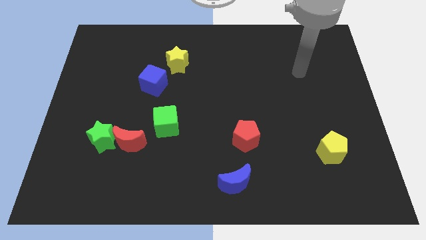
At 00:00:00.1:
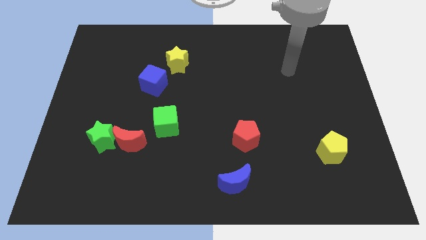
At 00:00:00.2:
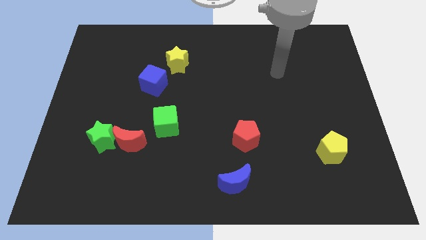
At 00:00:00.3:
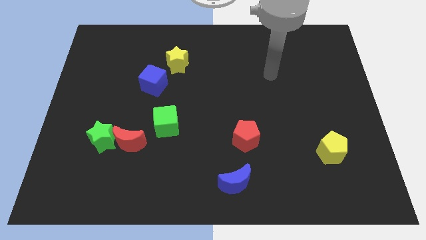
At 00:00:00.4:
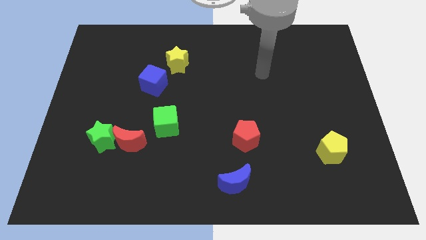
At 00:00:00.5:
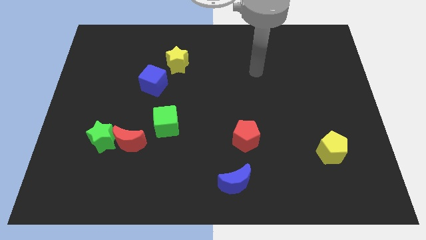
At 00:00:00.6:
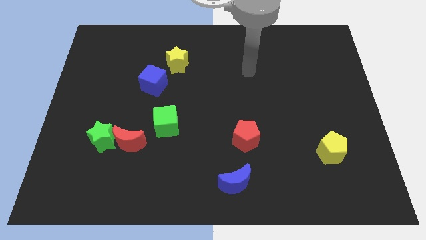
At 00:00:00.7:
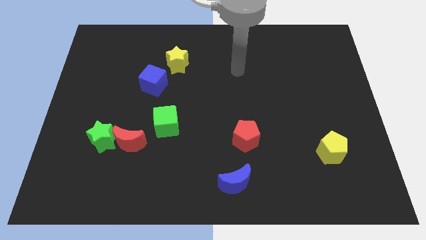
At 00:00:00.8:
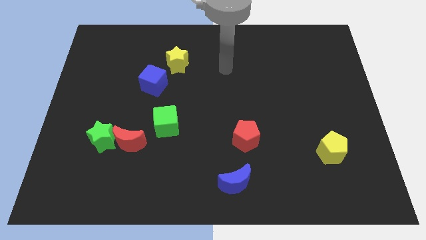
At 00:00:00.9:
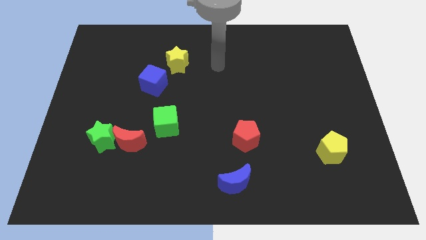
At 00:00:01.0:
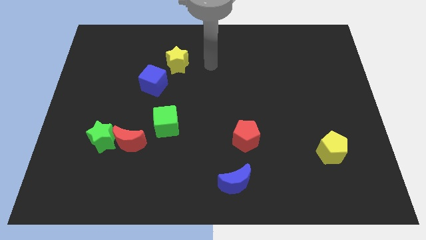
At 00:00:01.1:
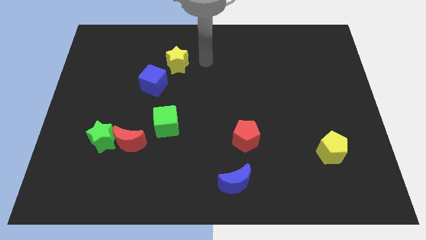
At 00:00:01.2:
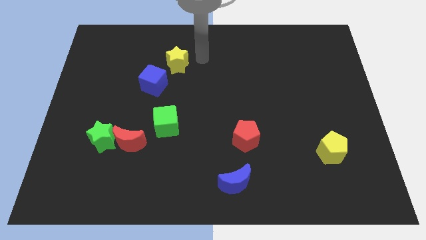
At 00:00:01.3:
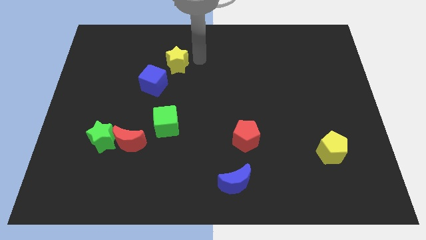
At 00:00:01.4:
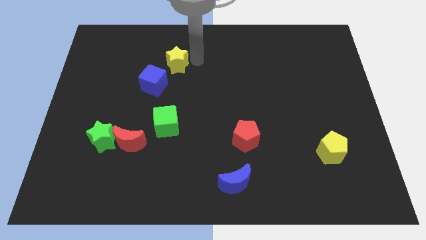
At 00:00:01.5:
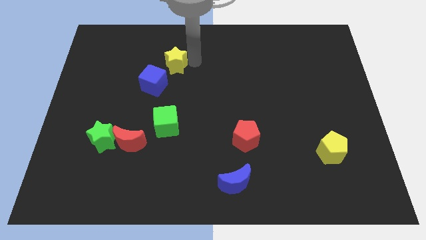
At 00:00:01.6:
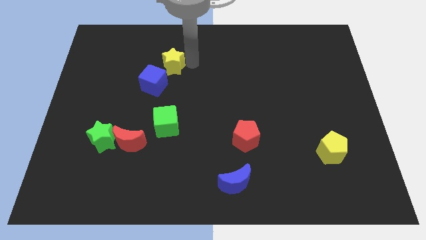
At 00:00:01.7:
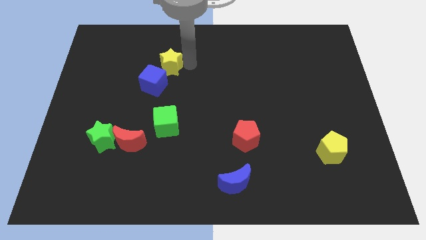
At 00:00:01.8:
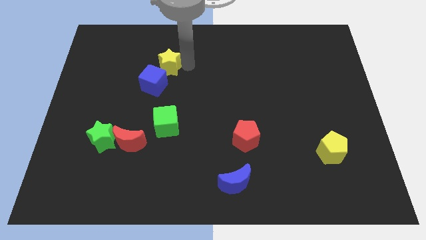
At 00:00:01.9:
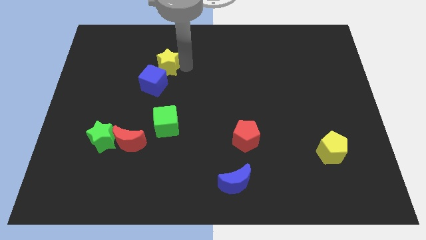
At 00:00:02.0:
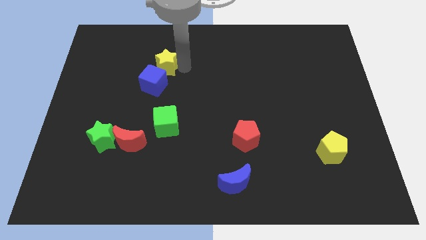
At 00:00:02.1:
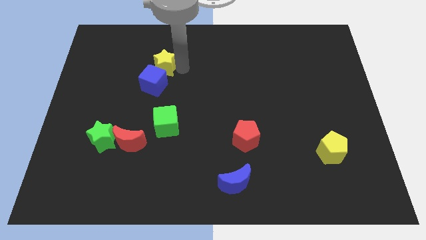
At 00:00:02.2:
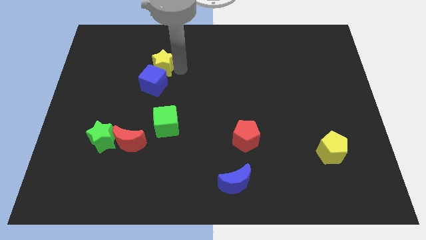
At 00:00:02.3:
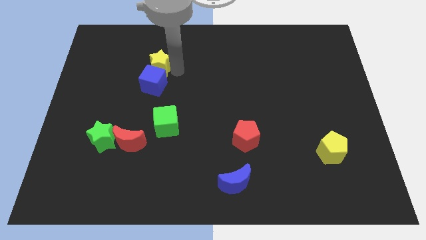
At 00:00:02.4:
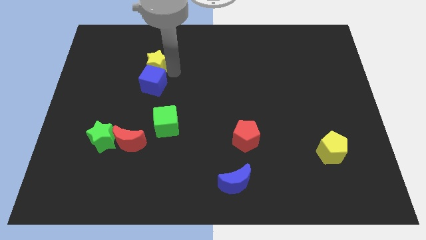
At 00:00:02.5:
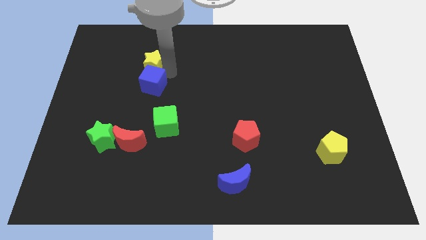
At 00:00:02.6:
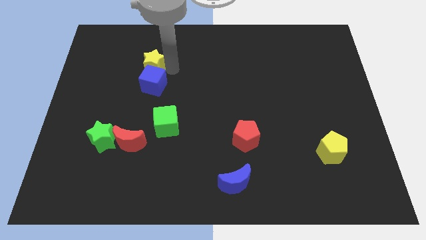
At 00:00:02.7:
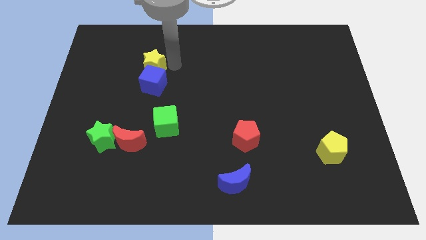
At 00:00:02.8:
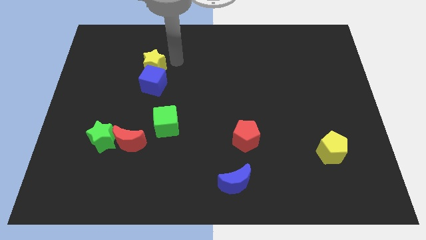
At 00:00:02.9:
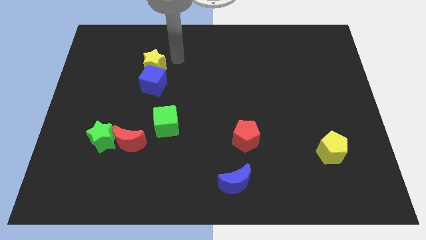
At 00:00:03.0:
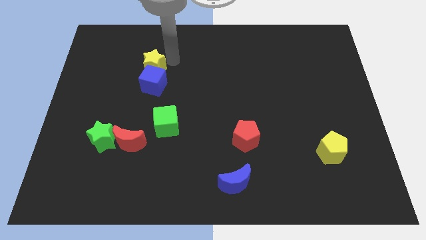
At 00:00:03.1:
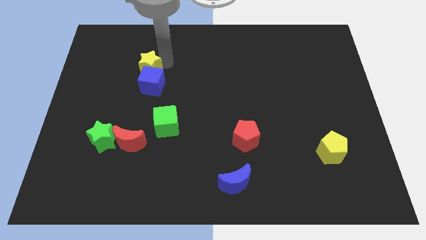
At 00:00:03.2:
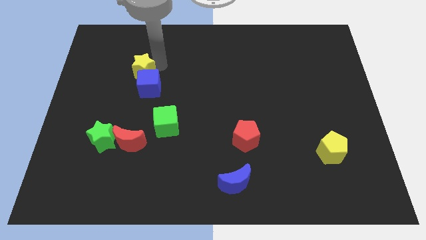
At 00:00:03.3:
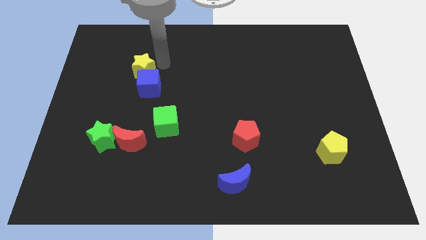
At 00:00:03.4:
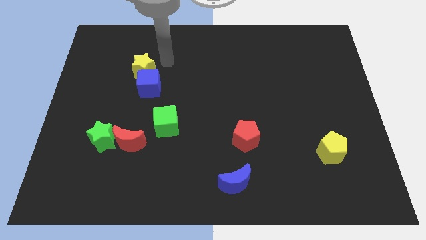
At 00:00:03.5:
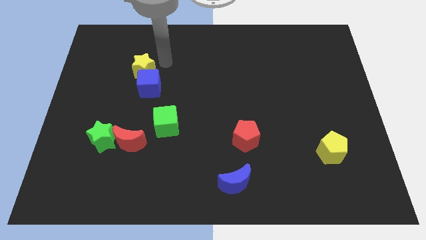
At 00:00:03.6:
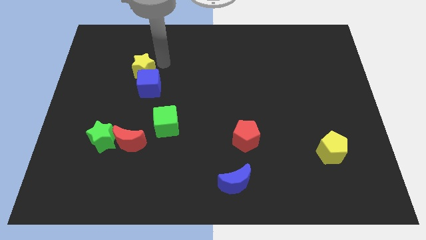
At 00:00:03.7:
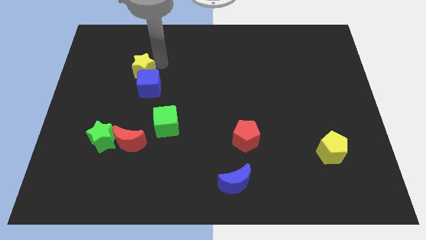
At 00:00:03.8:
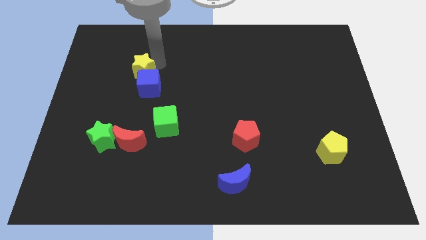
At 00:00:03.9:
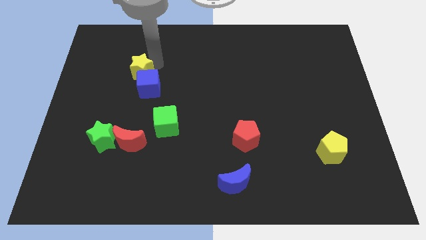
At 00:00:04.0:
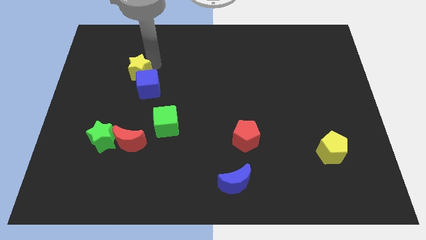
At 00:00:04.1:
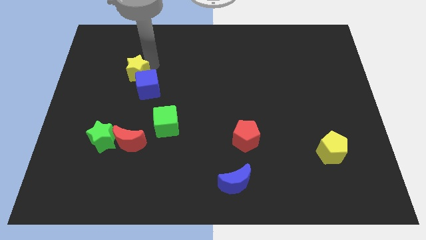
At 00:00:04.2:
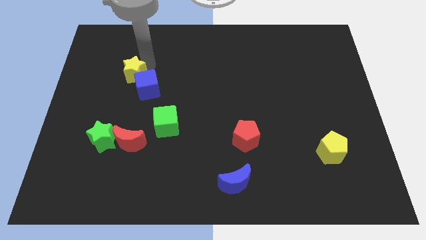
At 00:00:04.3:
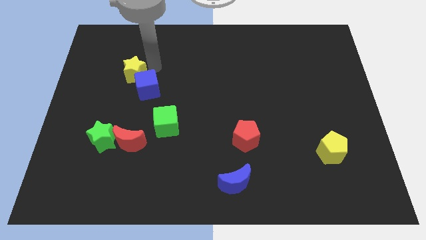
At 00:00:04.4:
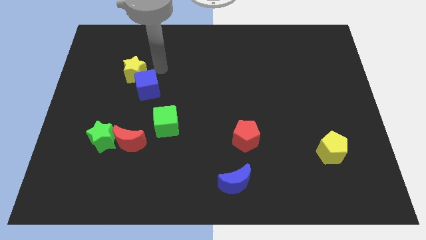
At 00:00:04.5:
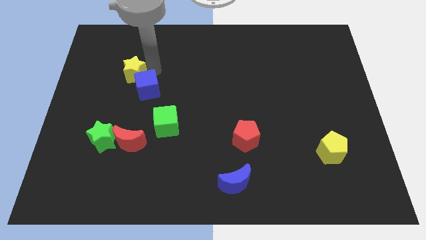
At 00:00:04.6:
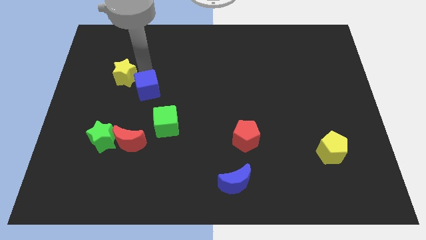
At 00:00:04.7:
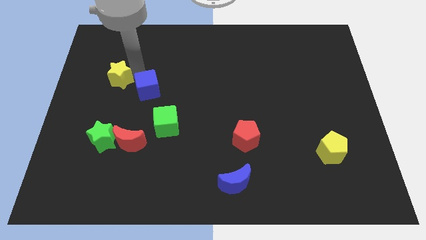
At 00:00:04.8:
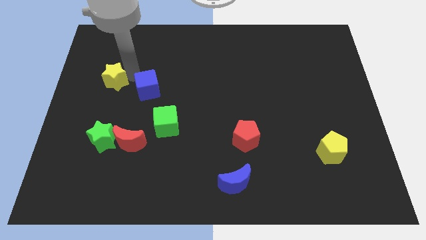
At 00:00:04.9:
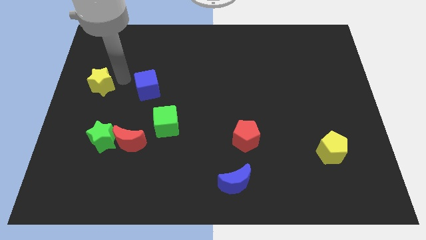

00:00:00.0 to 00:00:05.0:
push the yellow star to the left side

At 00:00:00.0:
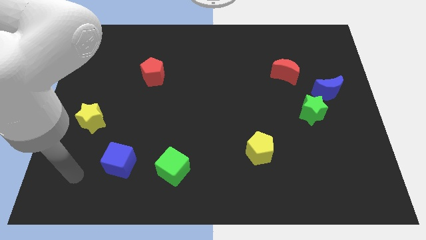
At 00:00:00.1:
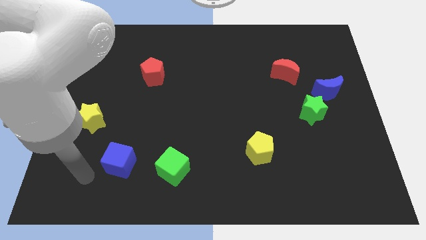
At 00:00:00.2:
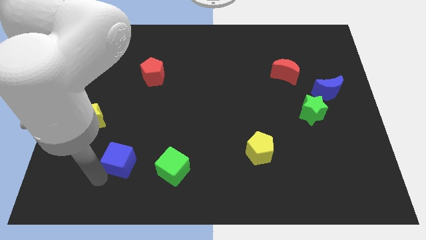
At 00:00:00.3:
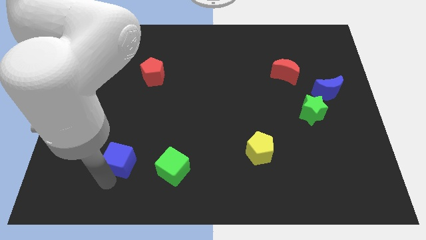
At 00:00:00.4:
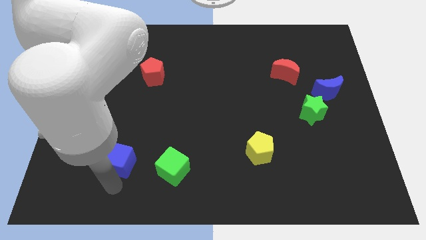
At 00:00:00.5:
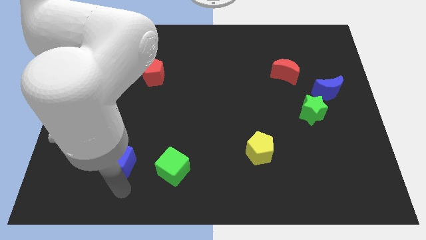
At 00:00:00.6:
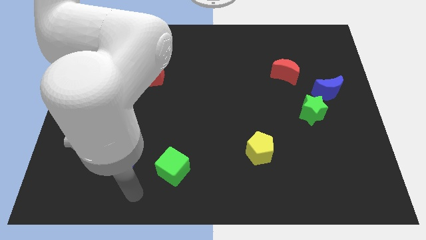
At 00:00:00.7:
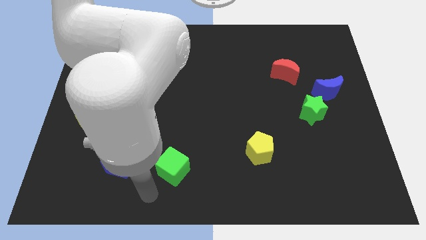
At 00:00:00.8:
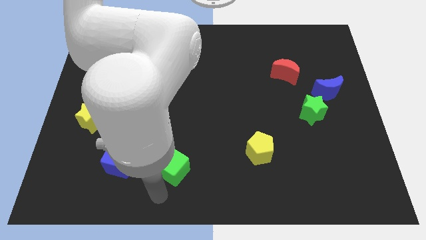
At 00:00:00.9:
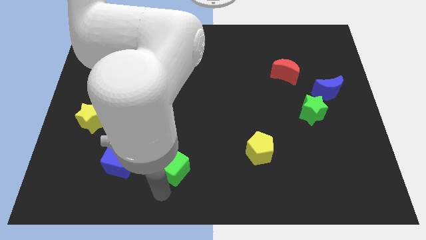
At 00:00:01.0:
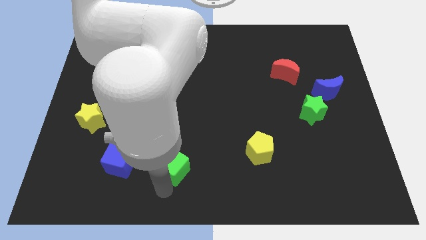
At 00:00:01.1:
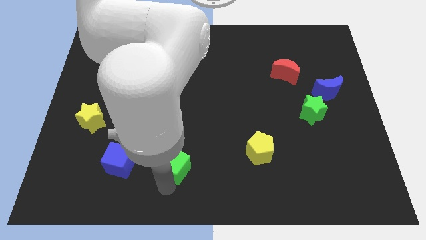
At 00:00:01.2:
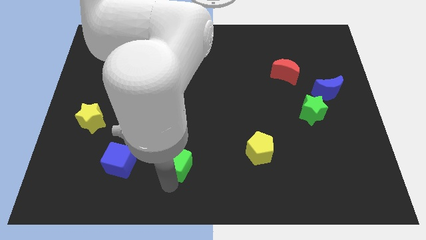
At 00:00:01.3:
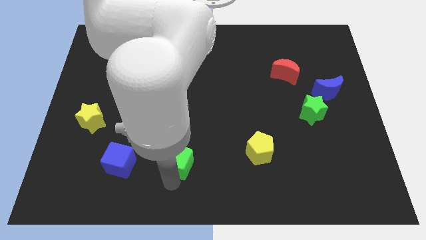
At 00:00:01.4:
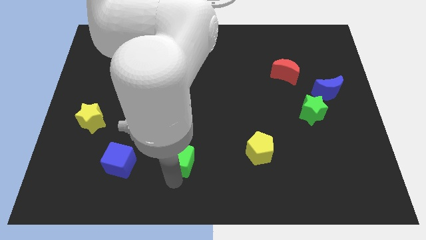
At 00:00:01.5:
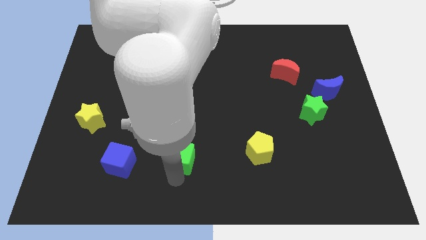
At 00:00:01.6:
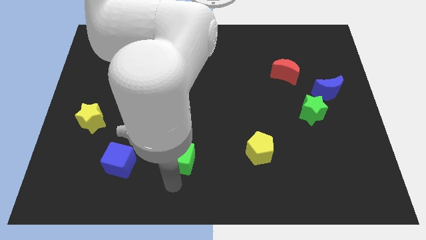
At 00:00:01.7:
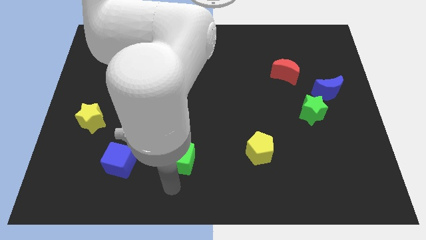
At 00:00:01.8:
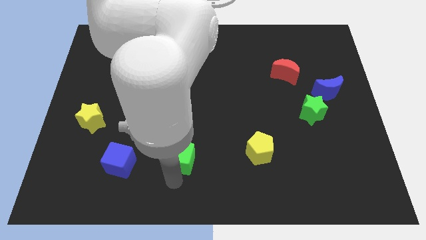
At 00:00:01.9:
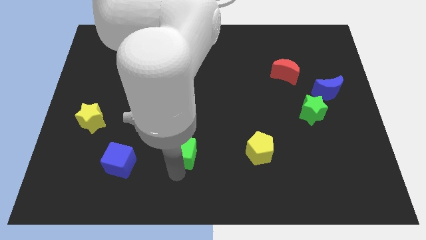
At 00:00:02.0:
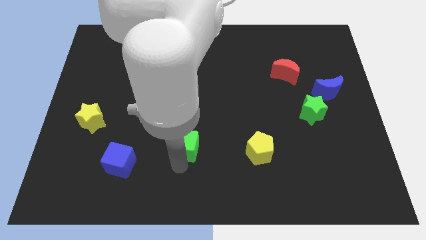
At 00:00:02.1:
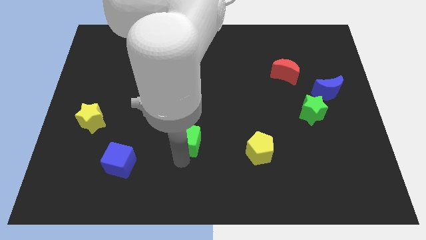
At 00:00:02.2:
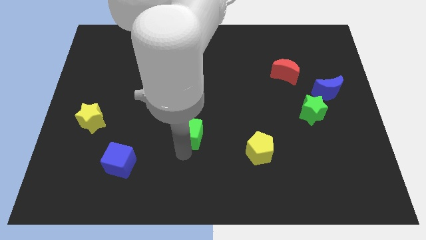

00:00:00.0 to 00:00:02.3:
move the green cube to the middle

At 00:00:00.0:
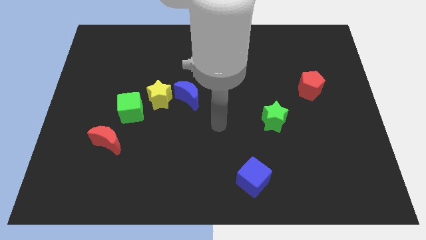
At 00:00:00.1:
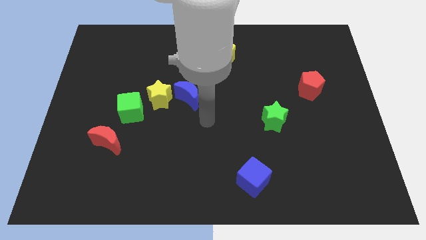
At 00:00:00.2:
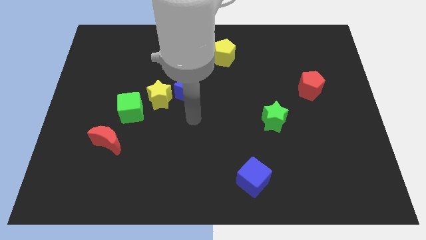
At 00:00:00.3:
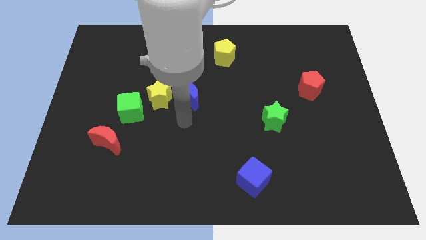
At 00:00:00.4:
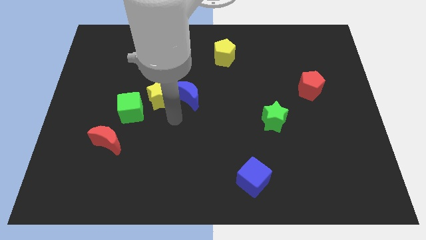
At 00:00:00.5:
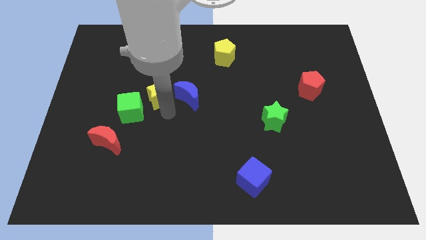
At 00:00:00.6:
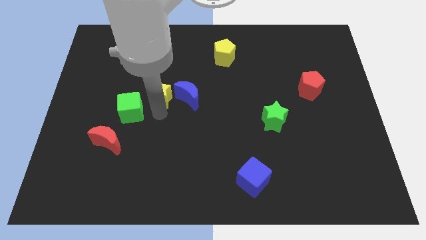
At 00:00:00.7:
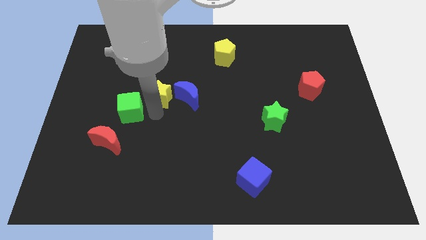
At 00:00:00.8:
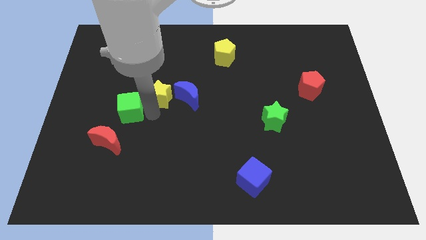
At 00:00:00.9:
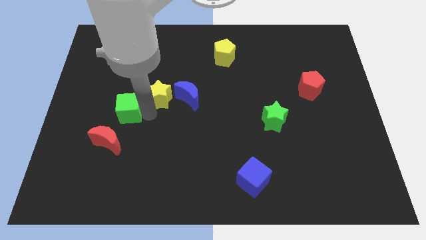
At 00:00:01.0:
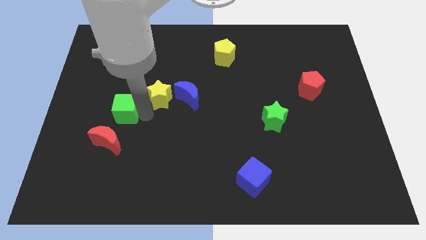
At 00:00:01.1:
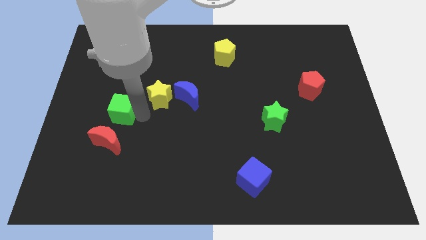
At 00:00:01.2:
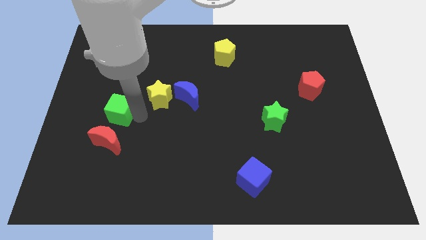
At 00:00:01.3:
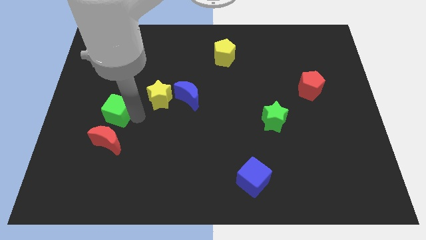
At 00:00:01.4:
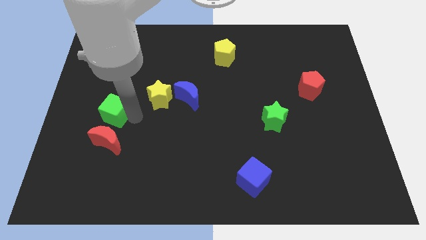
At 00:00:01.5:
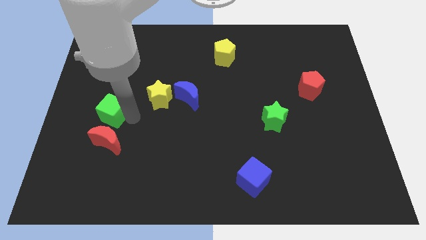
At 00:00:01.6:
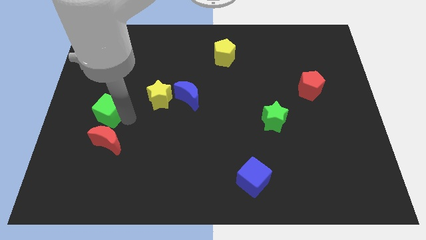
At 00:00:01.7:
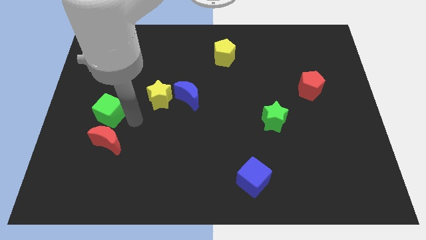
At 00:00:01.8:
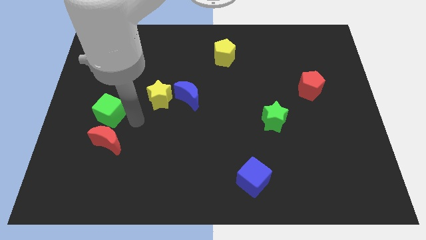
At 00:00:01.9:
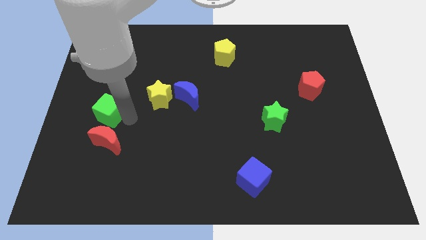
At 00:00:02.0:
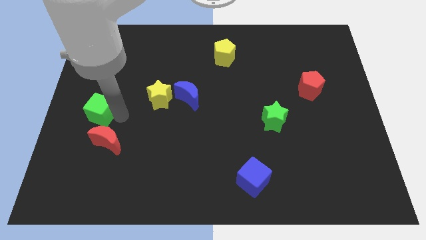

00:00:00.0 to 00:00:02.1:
slide the green cube to the left side of the board
